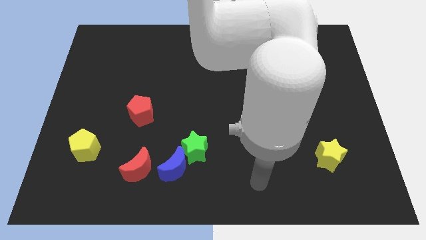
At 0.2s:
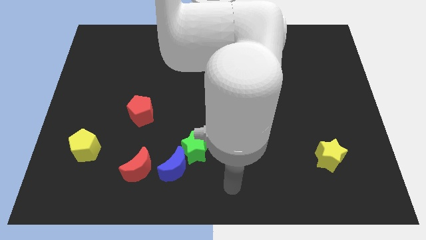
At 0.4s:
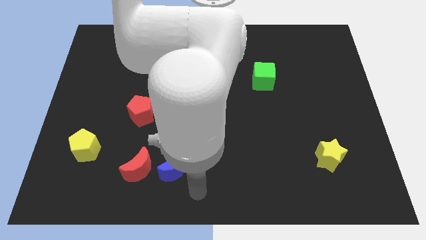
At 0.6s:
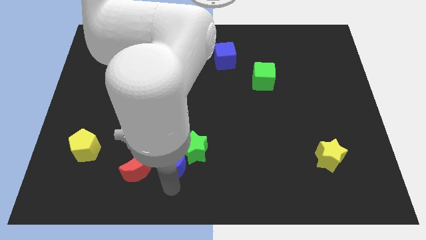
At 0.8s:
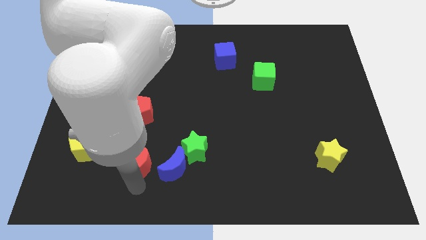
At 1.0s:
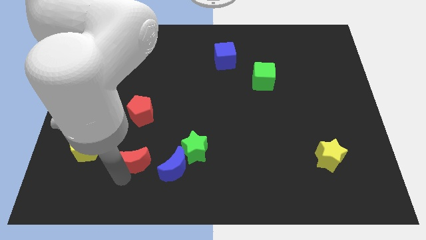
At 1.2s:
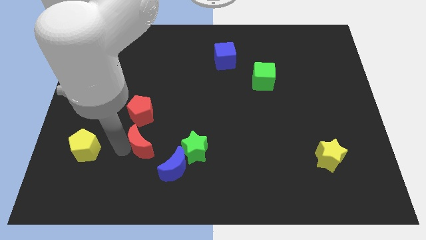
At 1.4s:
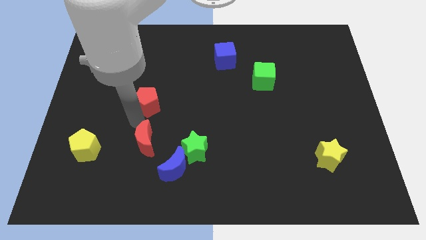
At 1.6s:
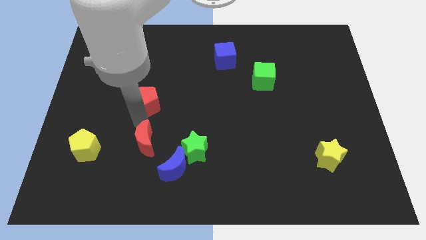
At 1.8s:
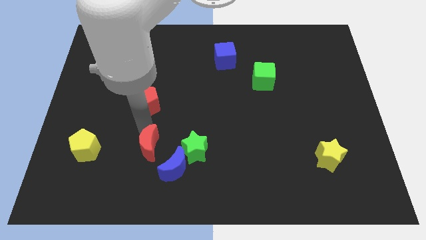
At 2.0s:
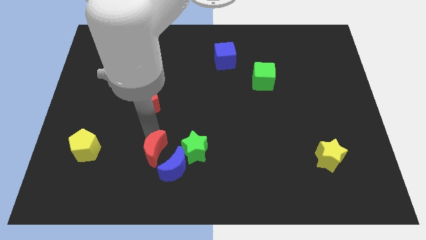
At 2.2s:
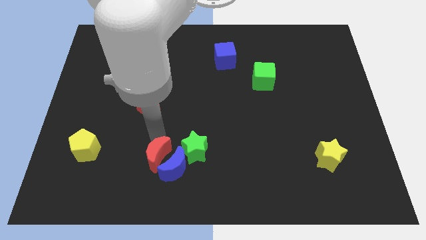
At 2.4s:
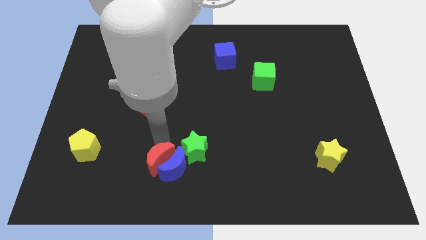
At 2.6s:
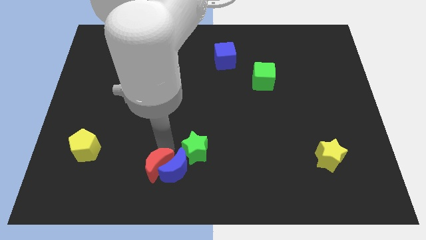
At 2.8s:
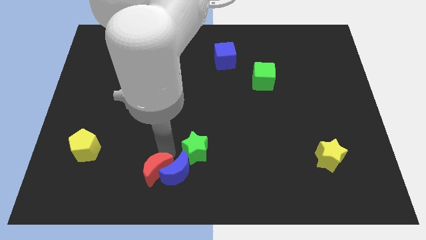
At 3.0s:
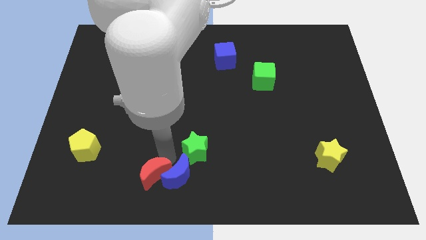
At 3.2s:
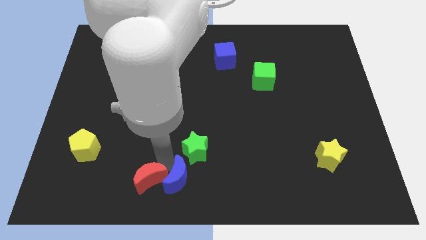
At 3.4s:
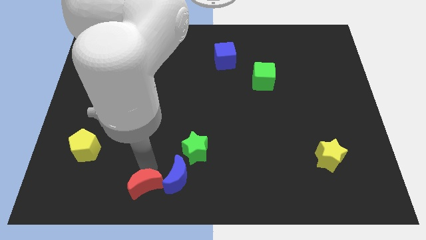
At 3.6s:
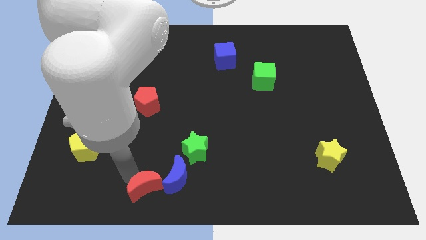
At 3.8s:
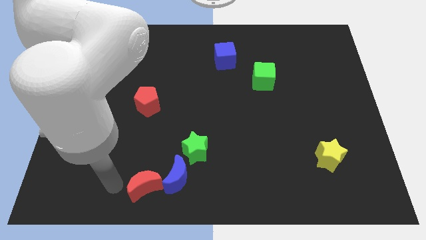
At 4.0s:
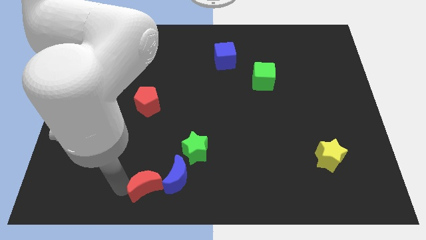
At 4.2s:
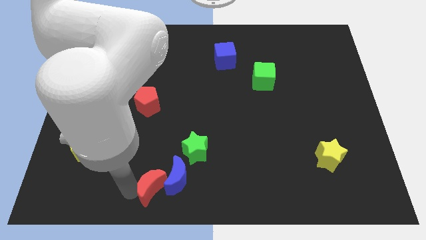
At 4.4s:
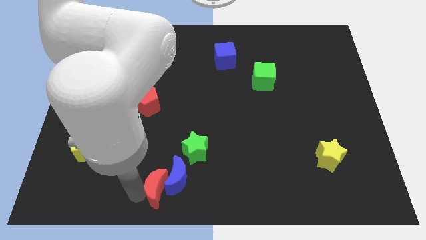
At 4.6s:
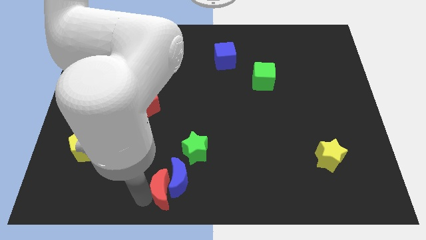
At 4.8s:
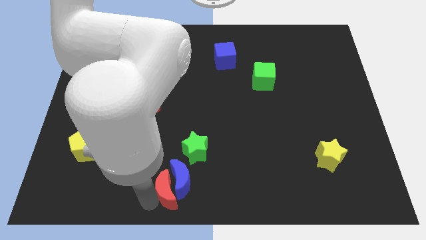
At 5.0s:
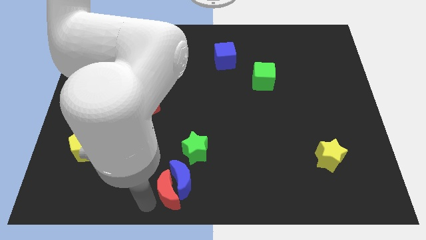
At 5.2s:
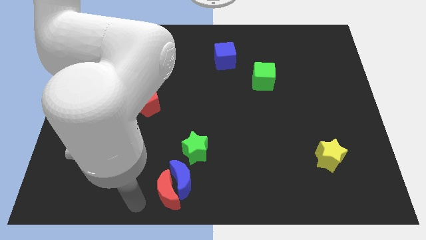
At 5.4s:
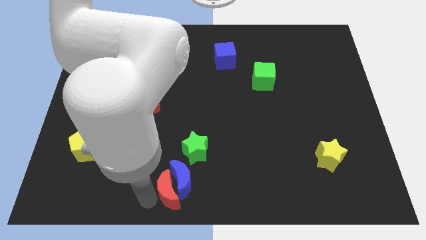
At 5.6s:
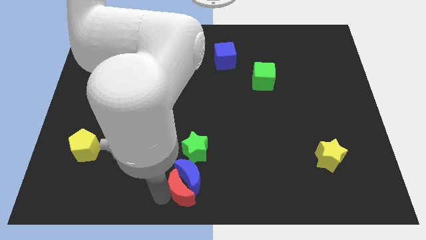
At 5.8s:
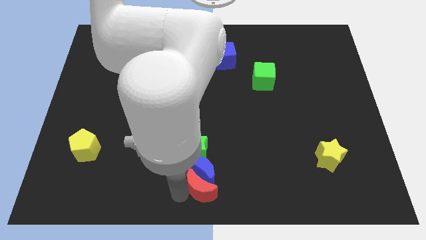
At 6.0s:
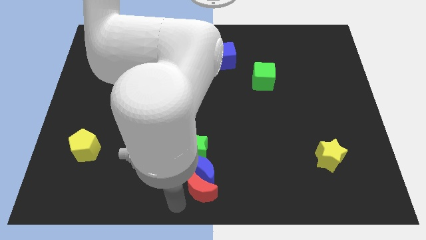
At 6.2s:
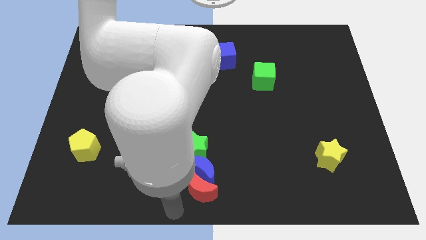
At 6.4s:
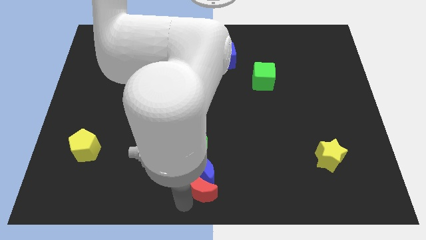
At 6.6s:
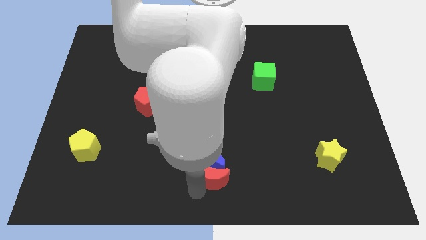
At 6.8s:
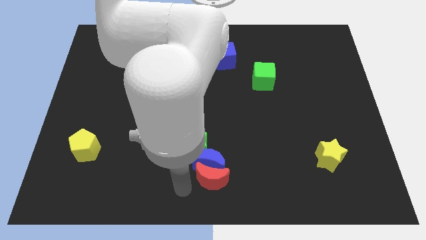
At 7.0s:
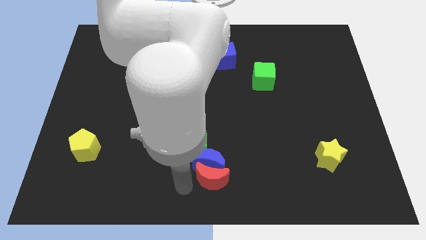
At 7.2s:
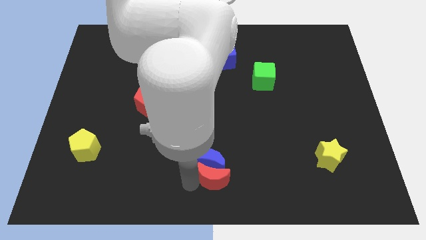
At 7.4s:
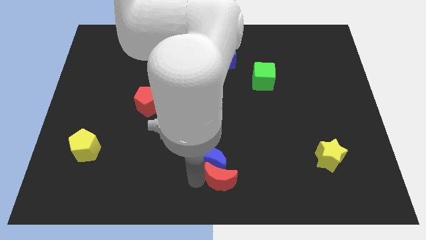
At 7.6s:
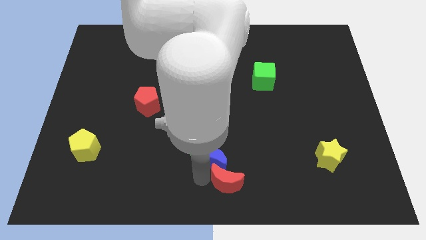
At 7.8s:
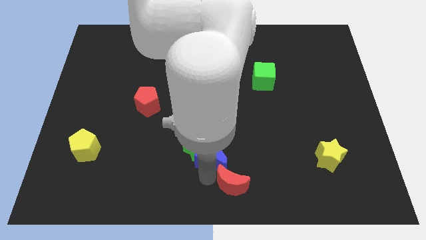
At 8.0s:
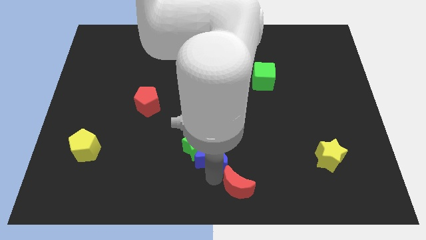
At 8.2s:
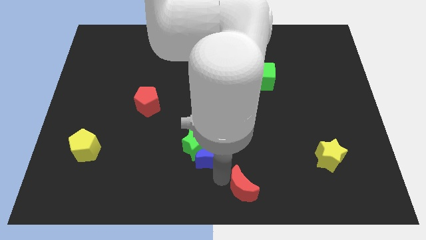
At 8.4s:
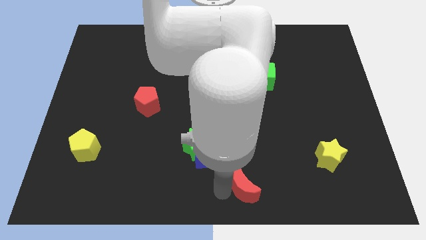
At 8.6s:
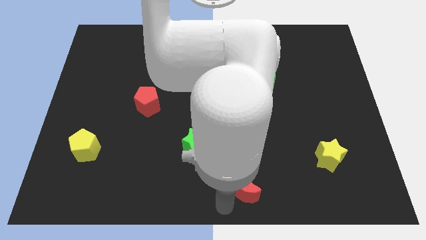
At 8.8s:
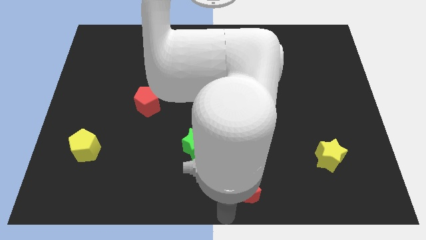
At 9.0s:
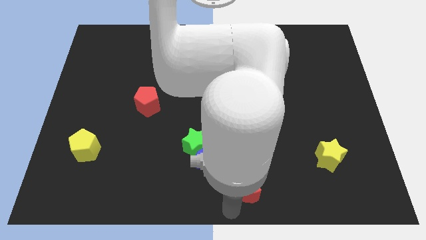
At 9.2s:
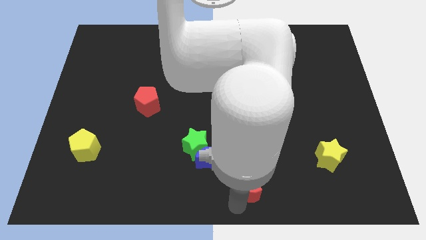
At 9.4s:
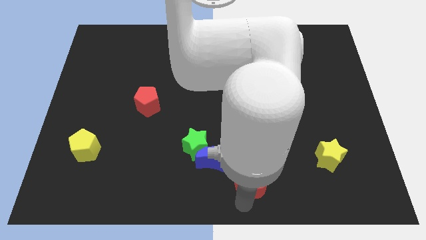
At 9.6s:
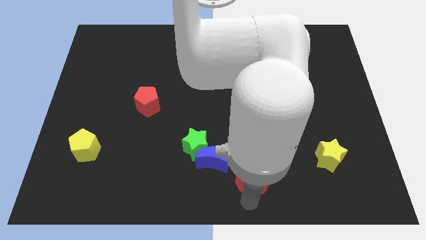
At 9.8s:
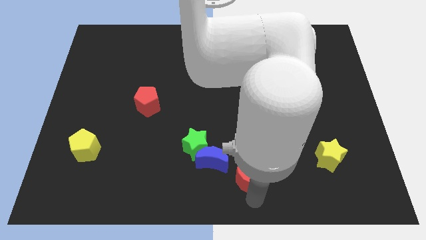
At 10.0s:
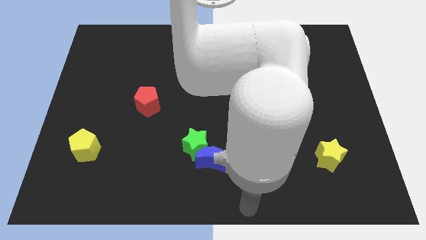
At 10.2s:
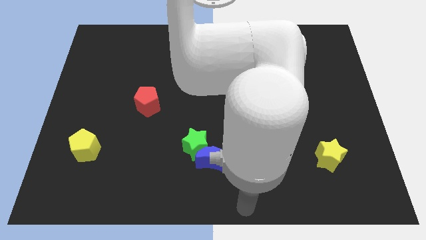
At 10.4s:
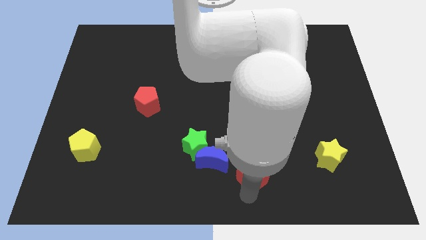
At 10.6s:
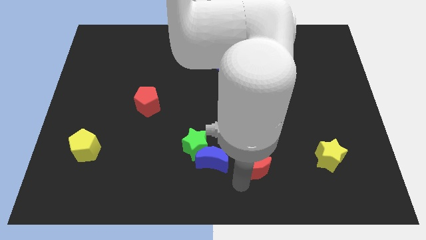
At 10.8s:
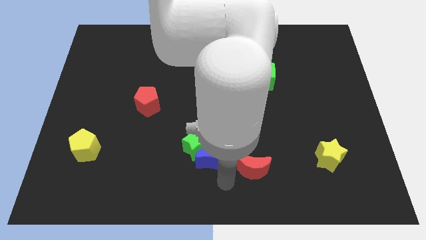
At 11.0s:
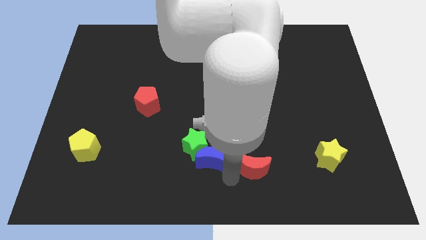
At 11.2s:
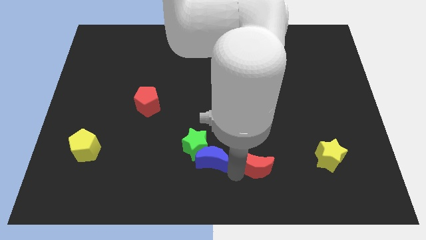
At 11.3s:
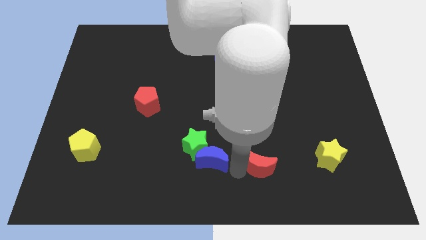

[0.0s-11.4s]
move the red moon to the left side of the yellow star

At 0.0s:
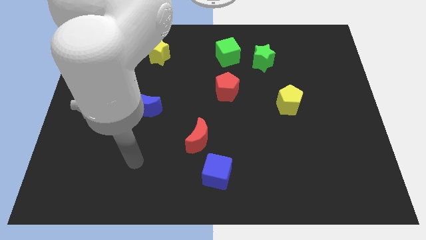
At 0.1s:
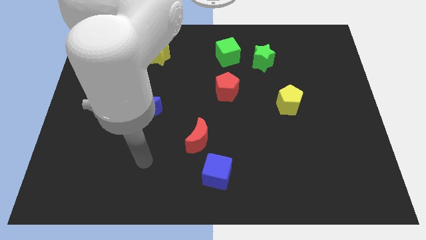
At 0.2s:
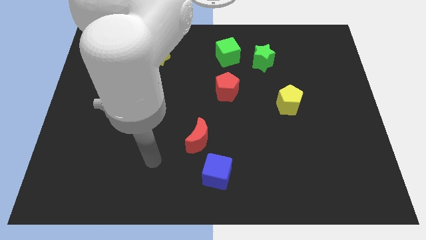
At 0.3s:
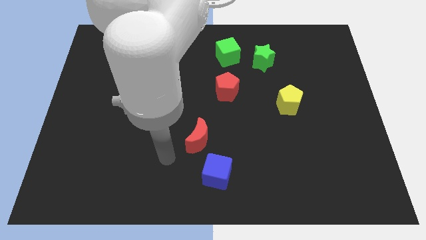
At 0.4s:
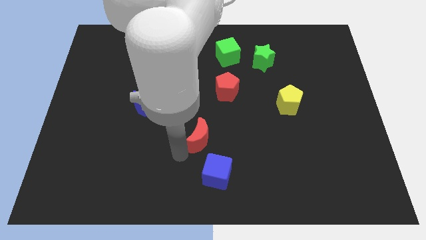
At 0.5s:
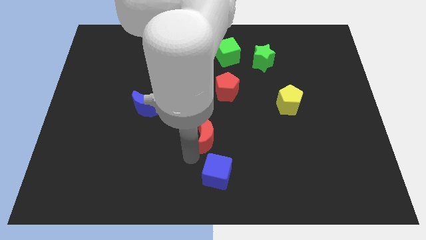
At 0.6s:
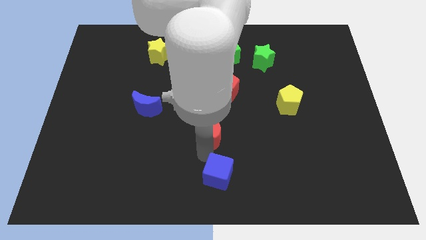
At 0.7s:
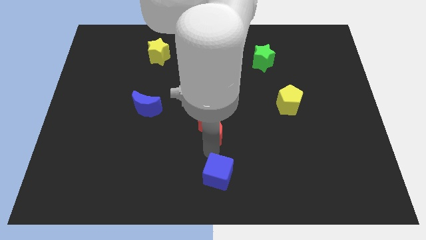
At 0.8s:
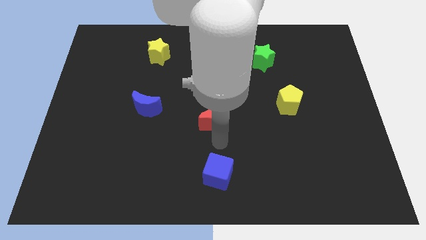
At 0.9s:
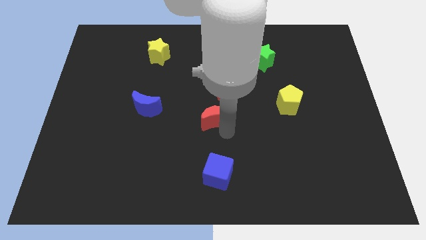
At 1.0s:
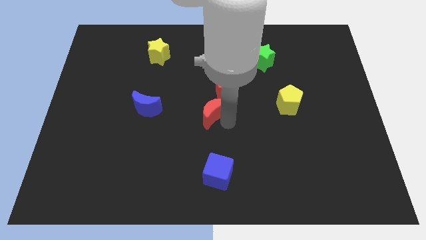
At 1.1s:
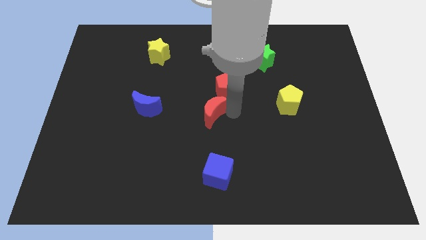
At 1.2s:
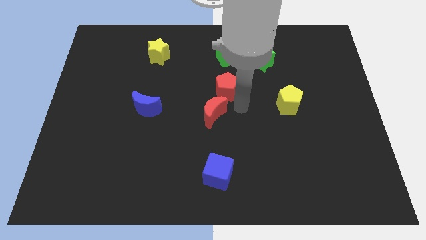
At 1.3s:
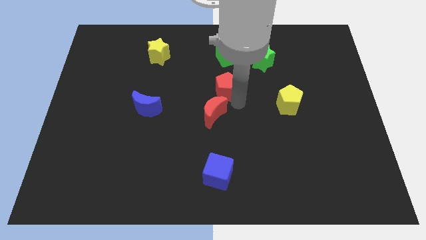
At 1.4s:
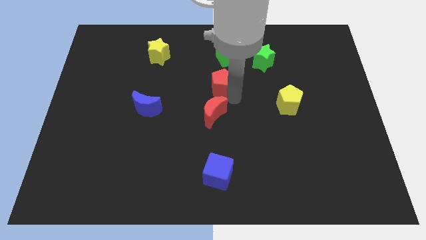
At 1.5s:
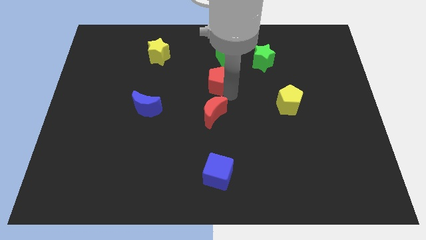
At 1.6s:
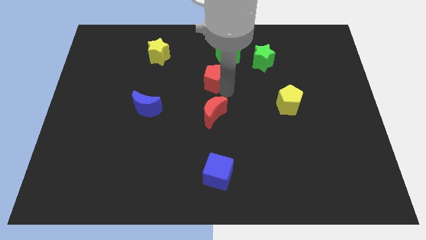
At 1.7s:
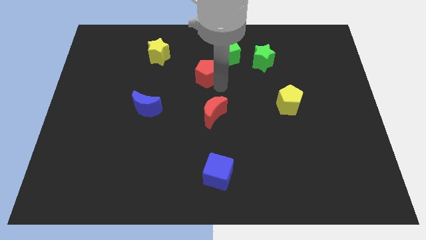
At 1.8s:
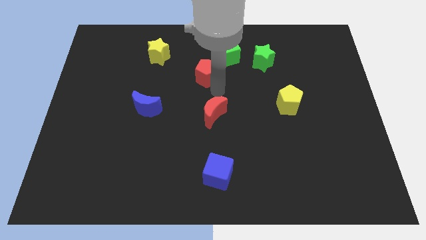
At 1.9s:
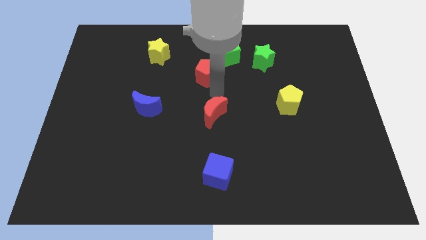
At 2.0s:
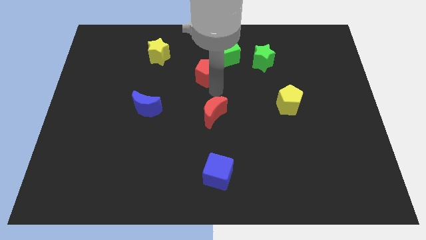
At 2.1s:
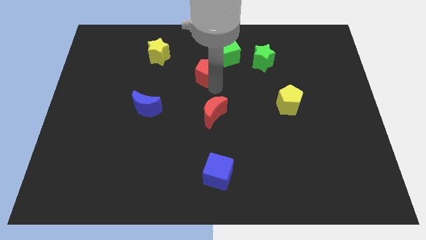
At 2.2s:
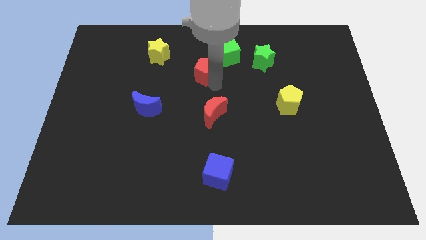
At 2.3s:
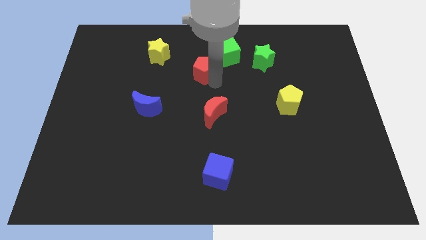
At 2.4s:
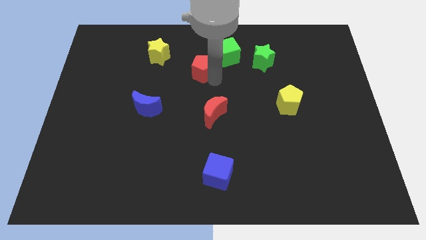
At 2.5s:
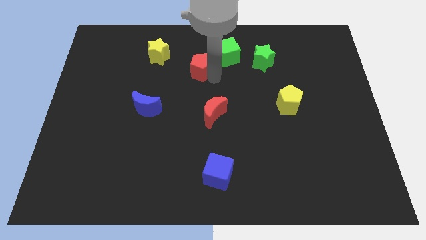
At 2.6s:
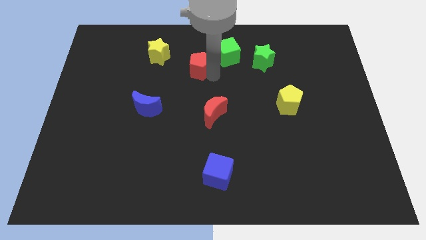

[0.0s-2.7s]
slide the red pentagon right of the yellow star
